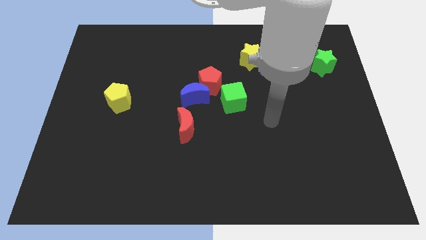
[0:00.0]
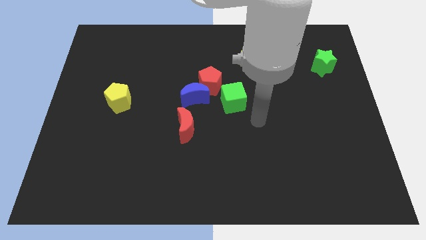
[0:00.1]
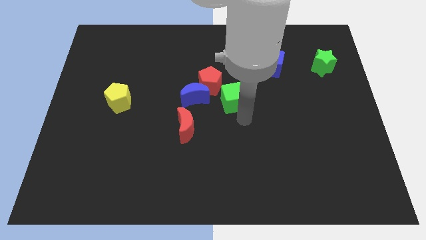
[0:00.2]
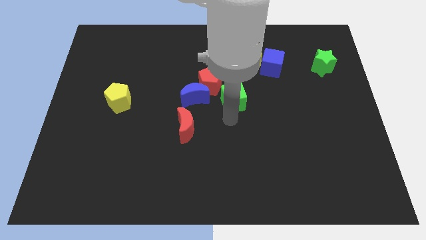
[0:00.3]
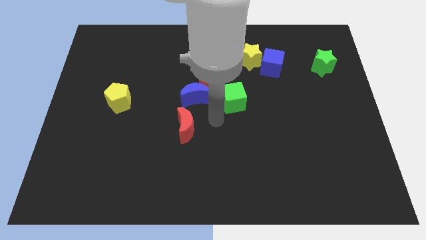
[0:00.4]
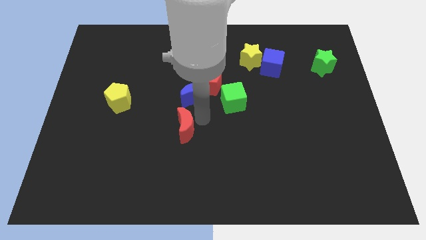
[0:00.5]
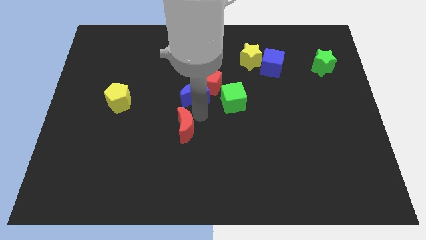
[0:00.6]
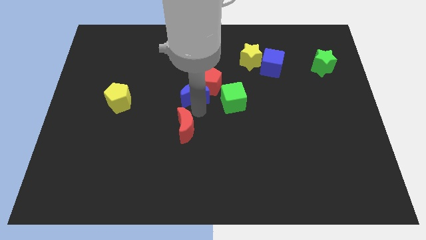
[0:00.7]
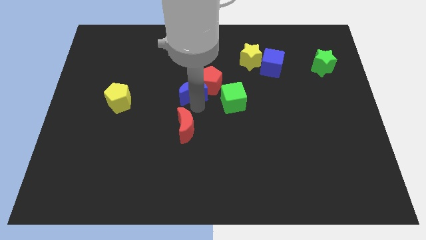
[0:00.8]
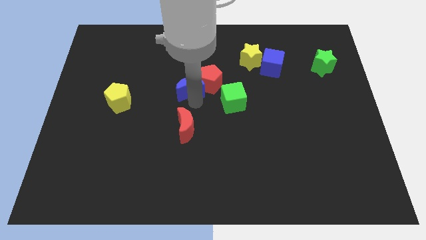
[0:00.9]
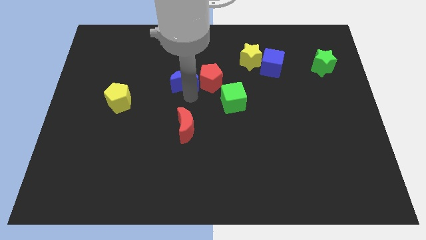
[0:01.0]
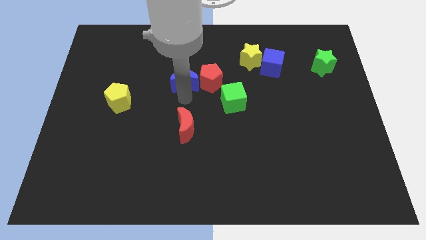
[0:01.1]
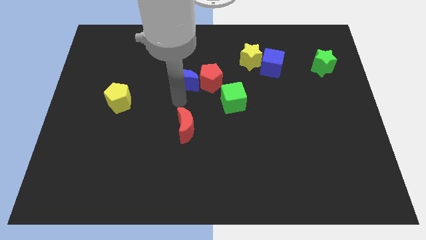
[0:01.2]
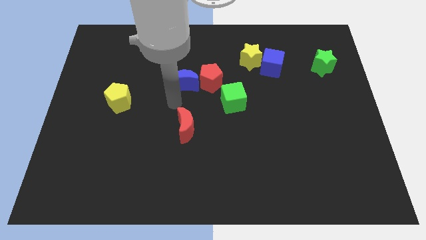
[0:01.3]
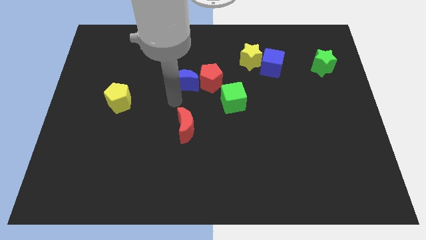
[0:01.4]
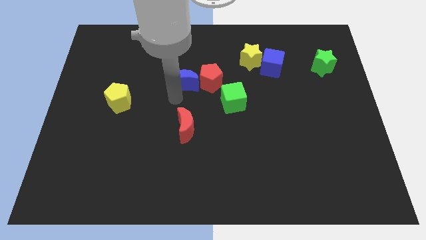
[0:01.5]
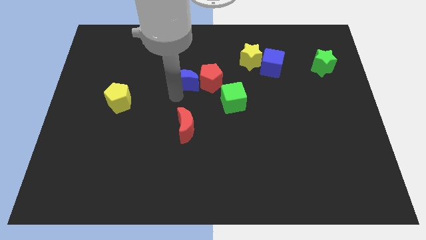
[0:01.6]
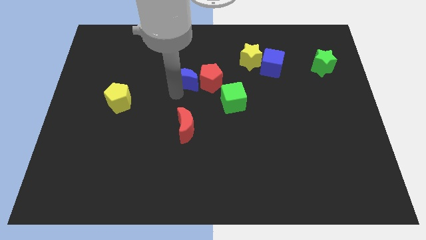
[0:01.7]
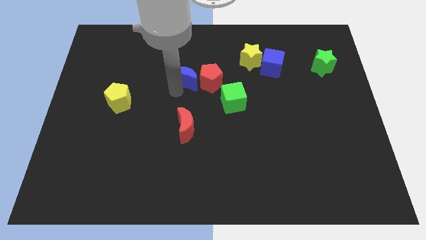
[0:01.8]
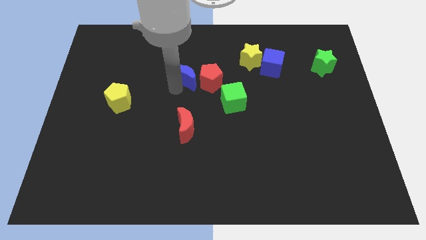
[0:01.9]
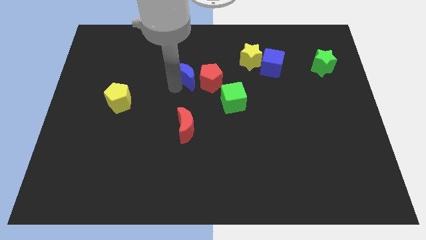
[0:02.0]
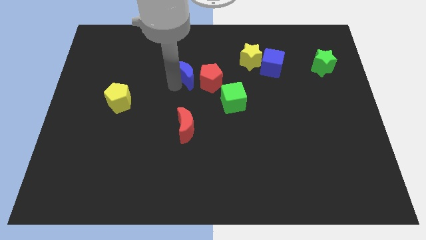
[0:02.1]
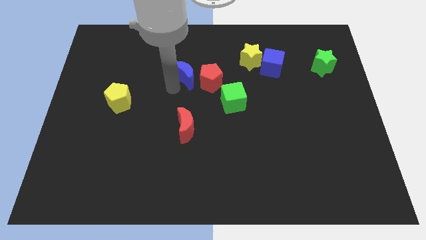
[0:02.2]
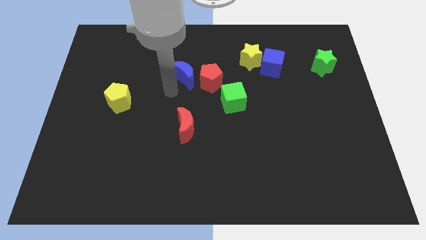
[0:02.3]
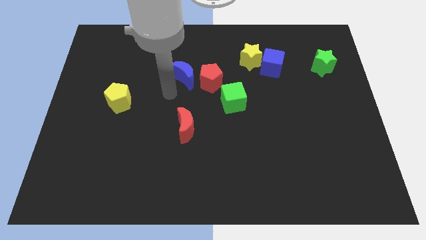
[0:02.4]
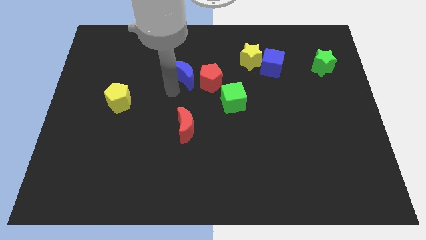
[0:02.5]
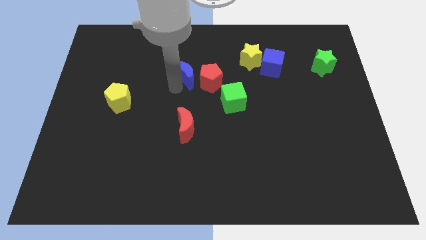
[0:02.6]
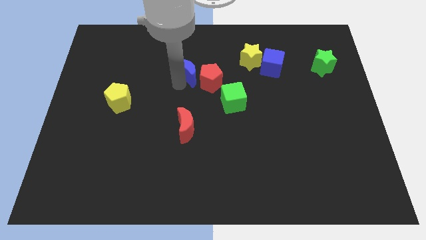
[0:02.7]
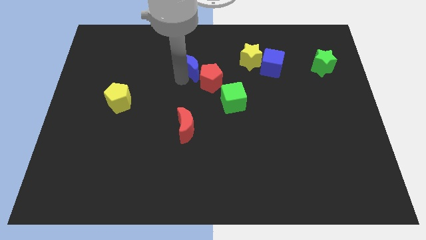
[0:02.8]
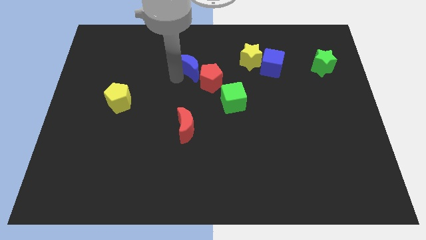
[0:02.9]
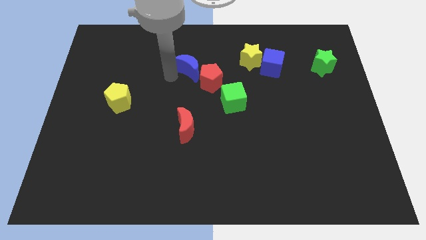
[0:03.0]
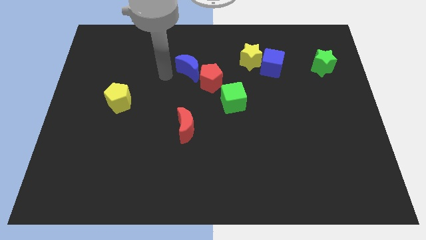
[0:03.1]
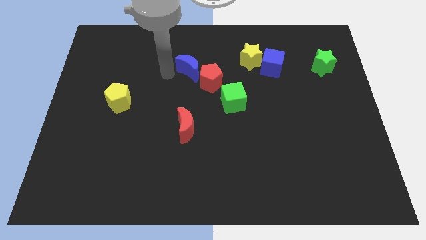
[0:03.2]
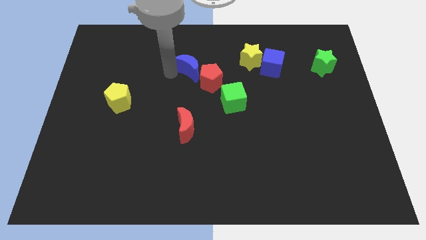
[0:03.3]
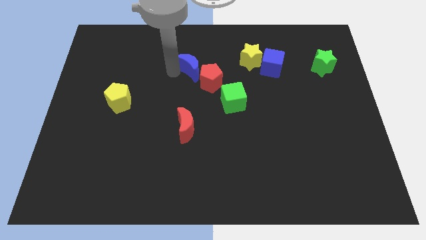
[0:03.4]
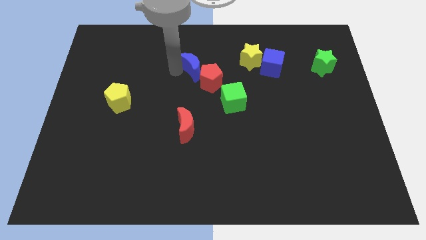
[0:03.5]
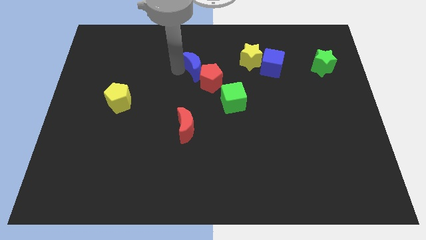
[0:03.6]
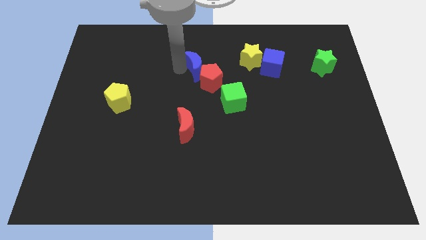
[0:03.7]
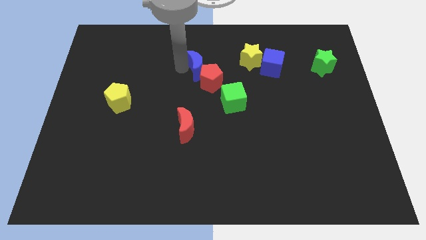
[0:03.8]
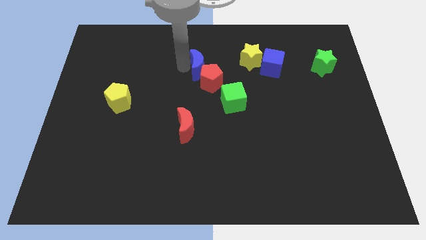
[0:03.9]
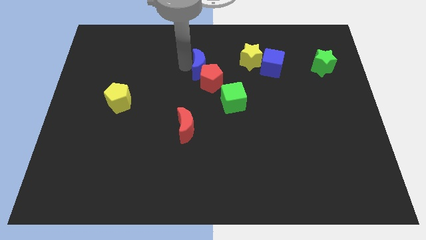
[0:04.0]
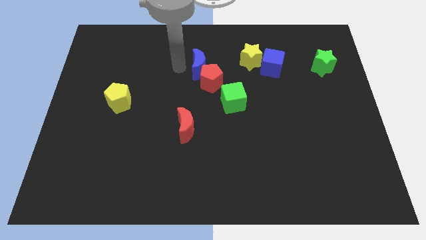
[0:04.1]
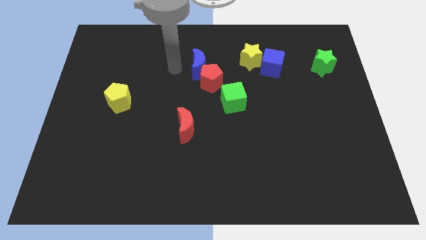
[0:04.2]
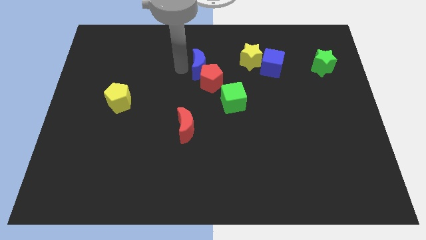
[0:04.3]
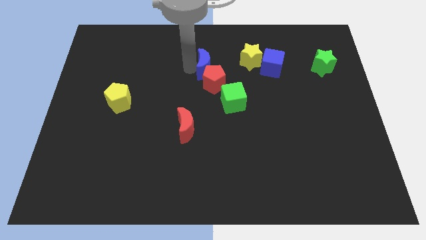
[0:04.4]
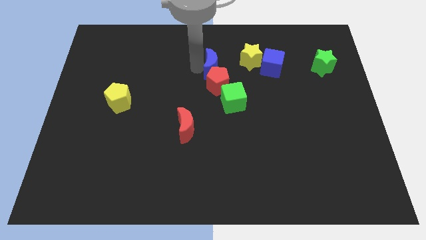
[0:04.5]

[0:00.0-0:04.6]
push the blue moon just left of the blue cube

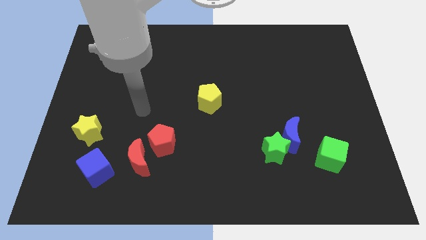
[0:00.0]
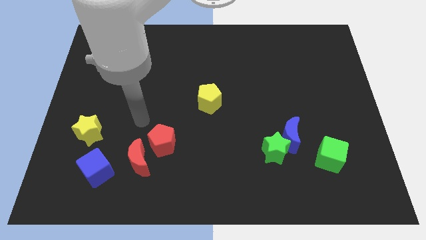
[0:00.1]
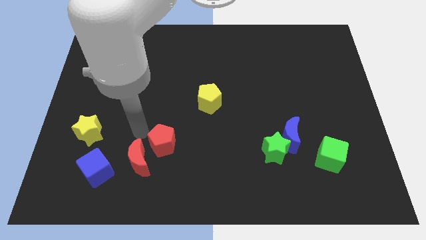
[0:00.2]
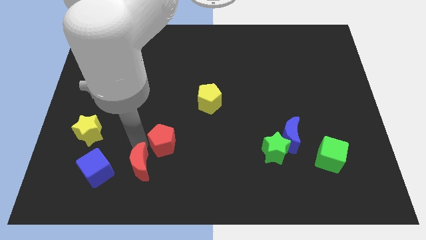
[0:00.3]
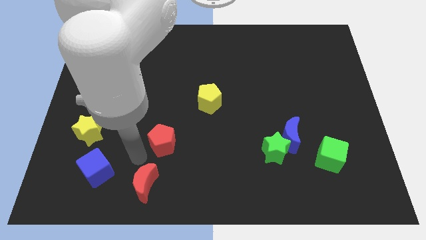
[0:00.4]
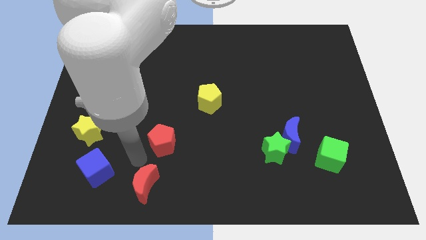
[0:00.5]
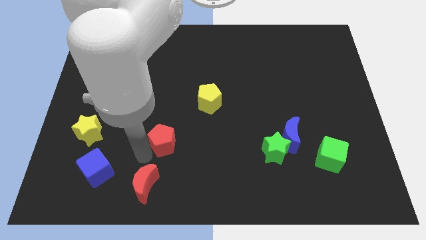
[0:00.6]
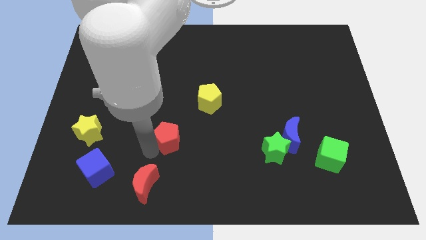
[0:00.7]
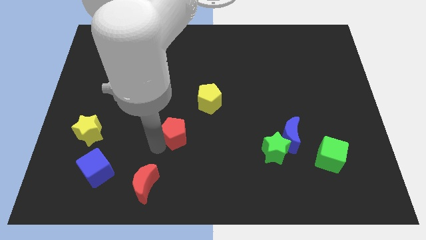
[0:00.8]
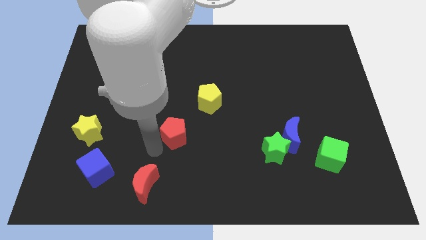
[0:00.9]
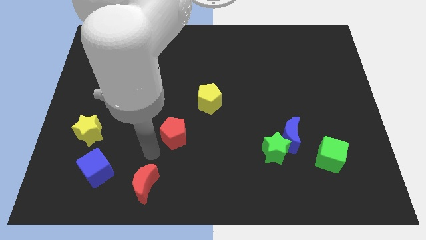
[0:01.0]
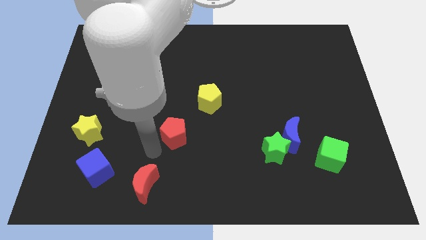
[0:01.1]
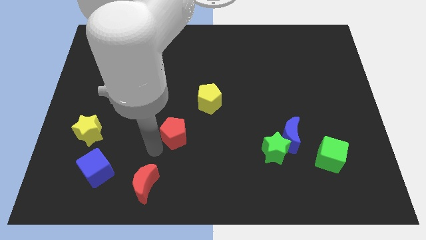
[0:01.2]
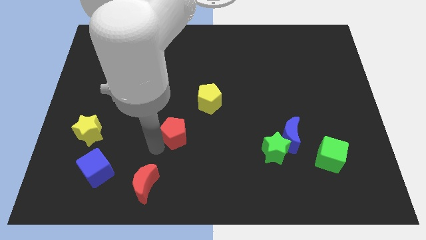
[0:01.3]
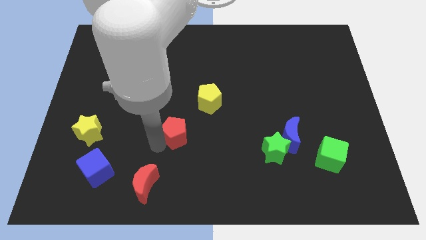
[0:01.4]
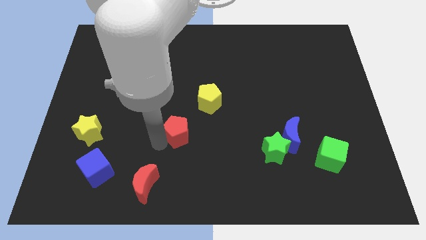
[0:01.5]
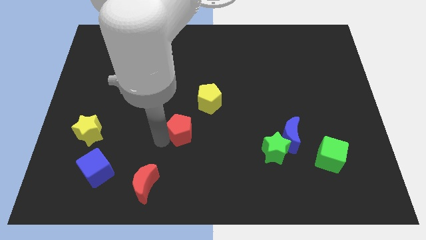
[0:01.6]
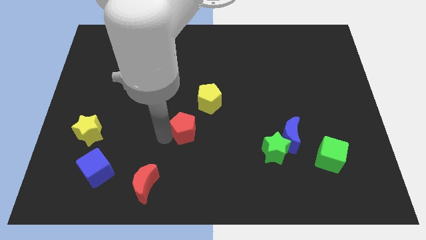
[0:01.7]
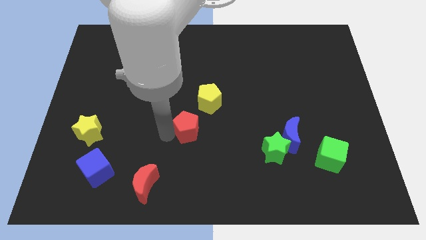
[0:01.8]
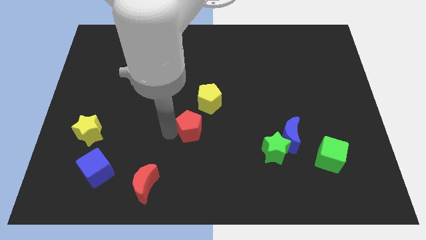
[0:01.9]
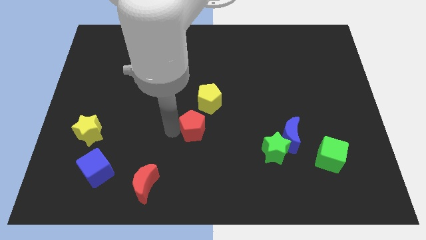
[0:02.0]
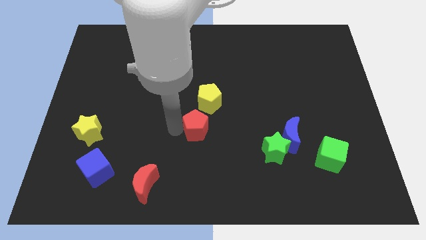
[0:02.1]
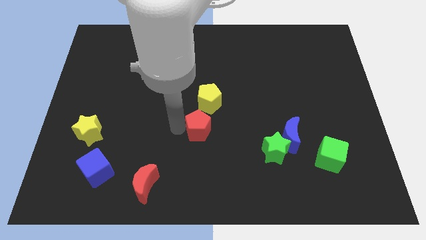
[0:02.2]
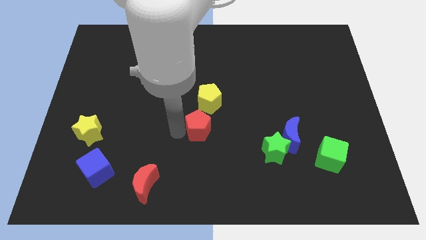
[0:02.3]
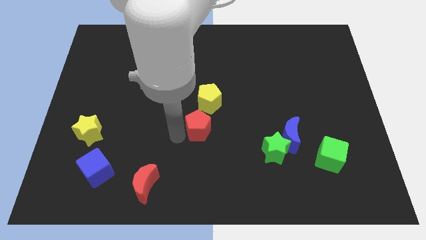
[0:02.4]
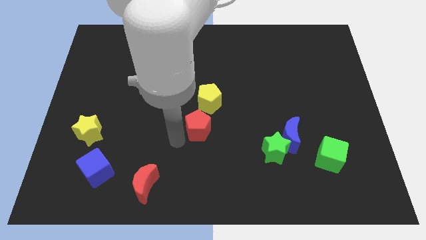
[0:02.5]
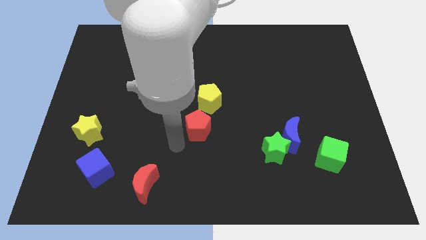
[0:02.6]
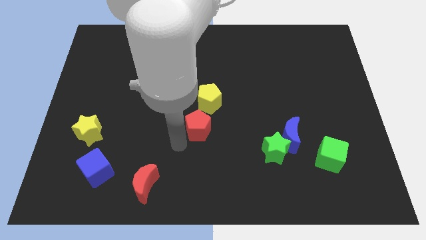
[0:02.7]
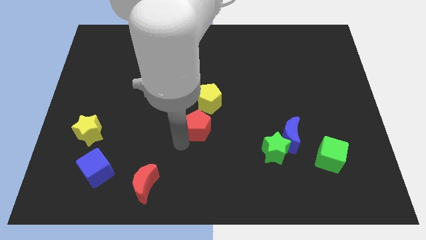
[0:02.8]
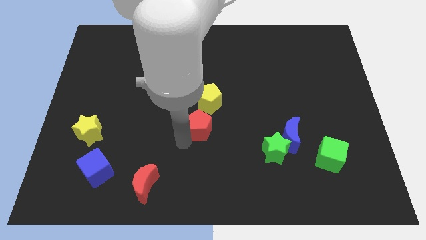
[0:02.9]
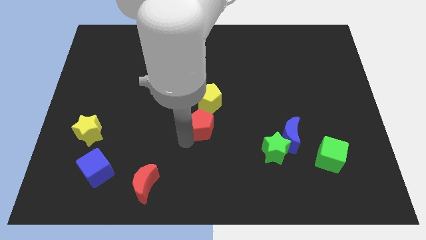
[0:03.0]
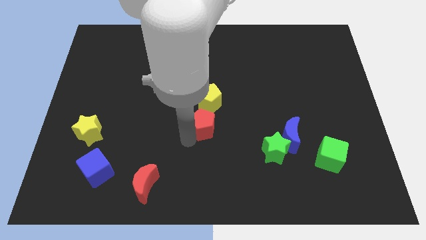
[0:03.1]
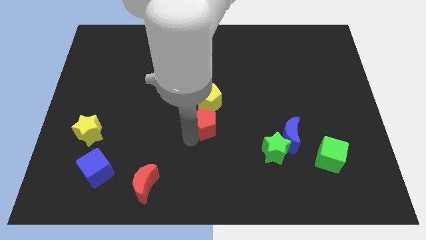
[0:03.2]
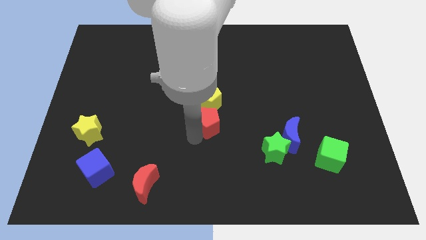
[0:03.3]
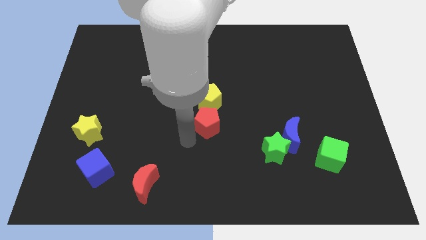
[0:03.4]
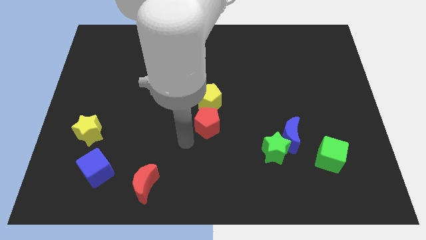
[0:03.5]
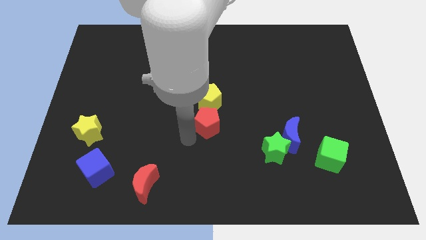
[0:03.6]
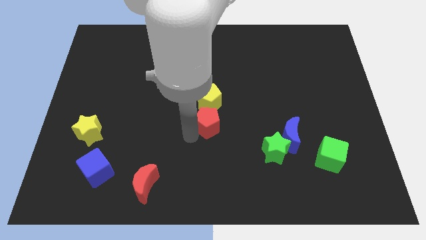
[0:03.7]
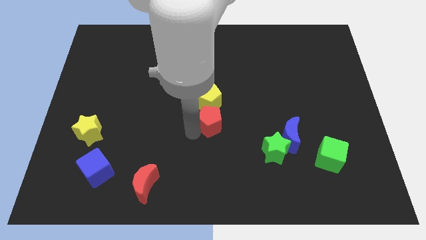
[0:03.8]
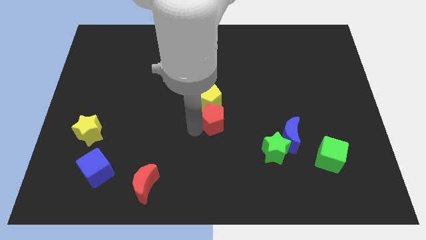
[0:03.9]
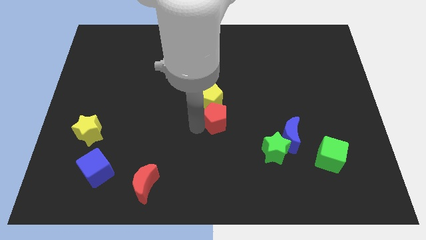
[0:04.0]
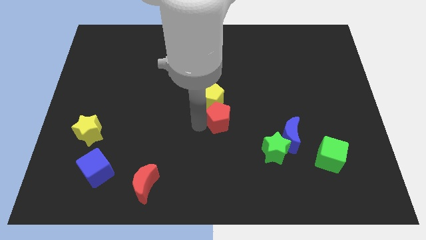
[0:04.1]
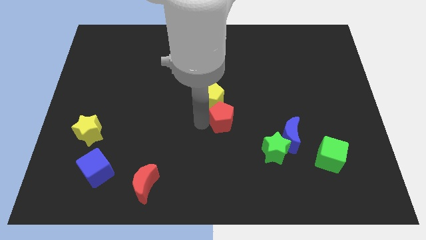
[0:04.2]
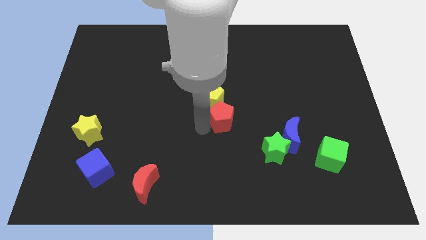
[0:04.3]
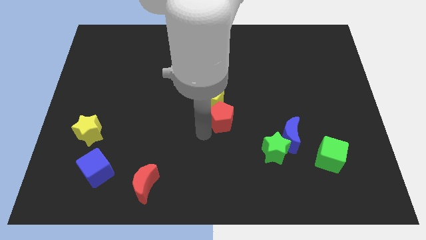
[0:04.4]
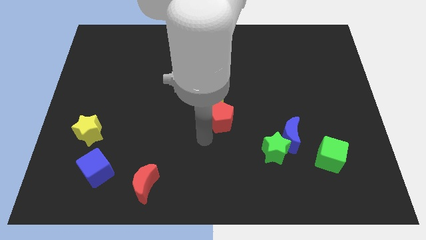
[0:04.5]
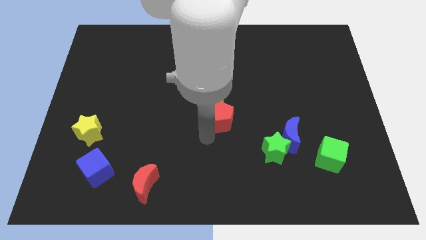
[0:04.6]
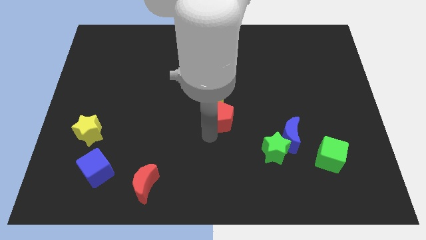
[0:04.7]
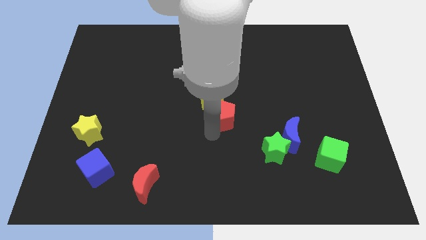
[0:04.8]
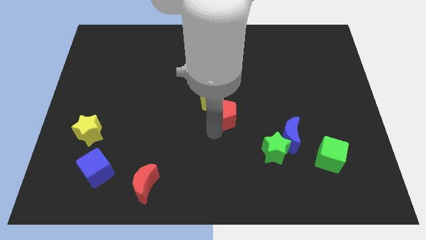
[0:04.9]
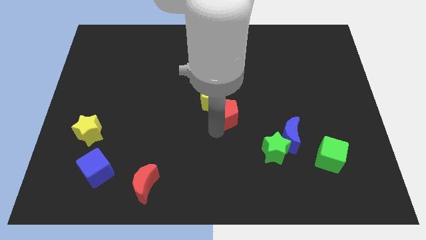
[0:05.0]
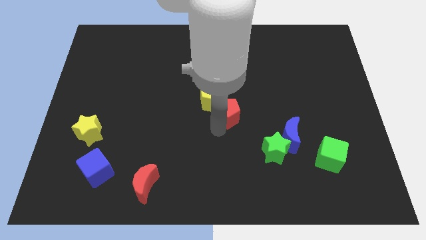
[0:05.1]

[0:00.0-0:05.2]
put the red pentagon to the right side of the yellow pentagon
